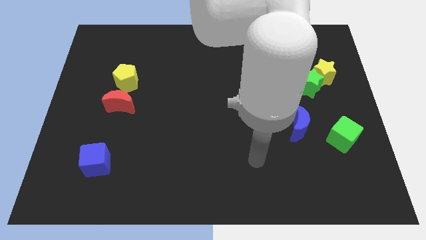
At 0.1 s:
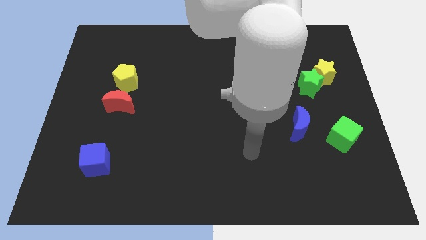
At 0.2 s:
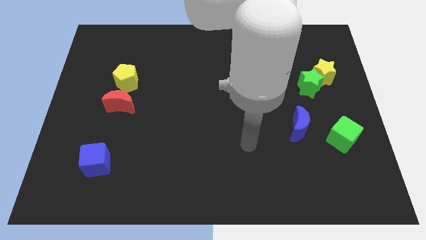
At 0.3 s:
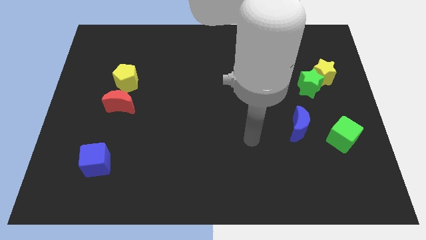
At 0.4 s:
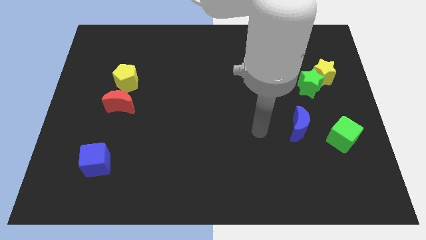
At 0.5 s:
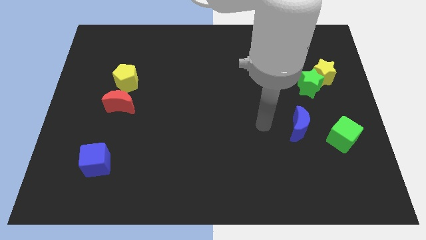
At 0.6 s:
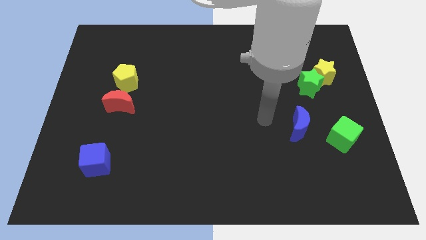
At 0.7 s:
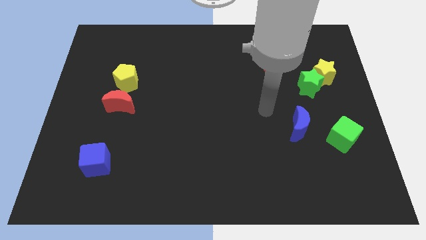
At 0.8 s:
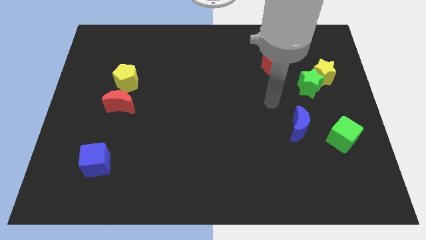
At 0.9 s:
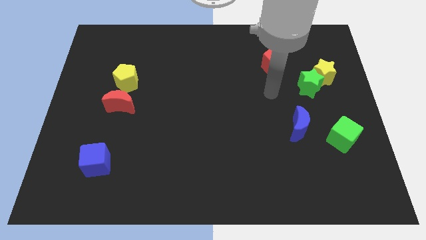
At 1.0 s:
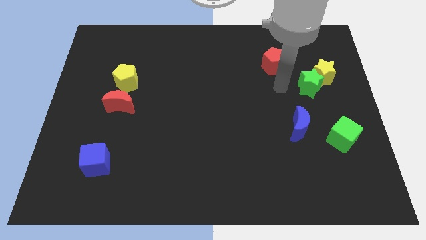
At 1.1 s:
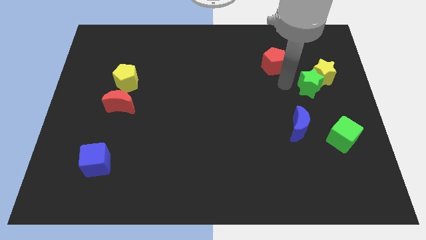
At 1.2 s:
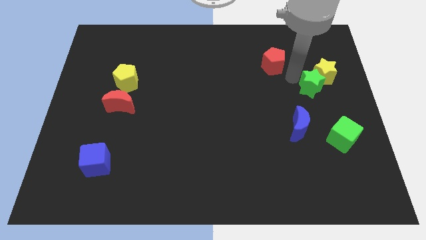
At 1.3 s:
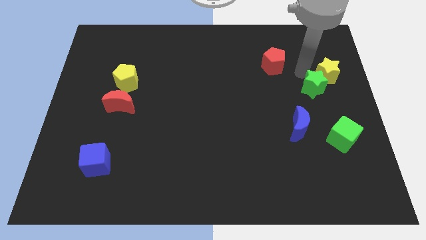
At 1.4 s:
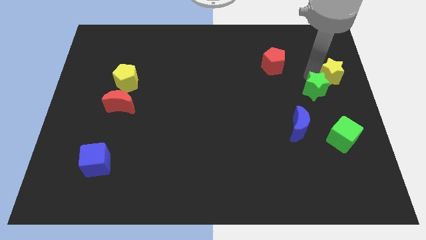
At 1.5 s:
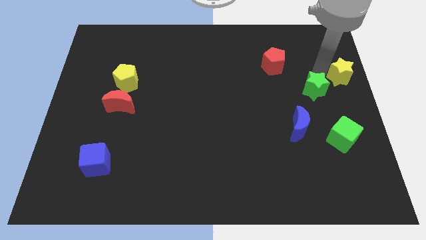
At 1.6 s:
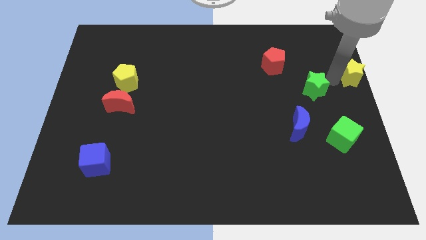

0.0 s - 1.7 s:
separate the green star from the yellow star

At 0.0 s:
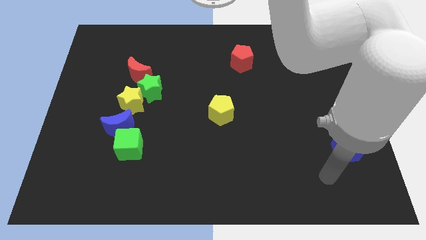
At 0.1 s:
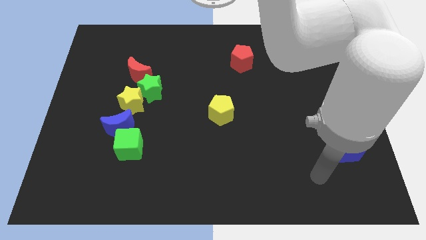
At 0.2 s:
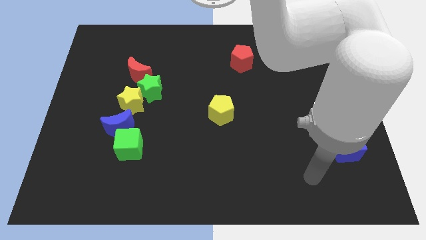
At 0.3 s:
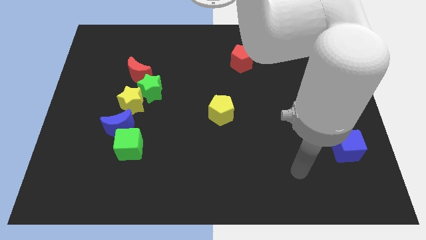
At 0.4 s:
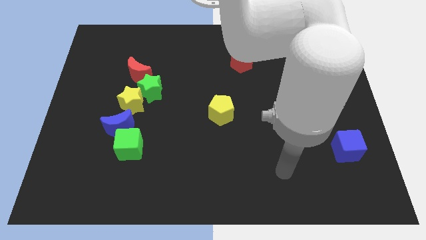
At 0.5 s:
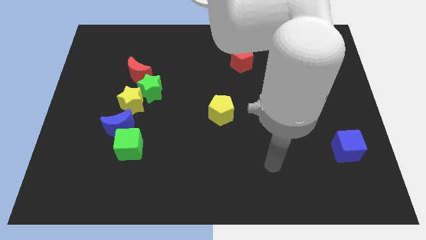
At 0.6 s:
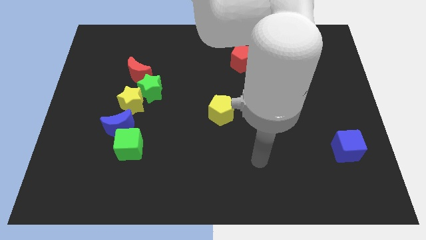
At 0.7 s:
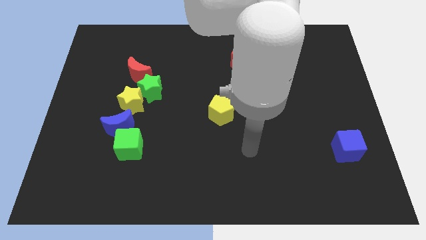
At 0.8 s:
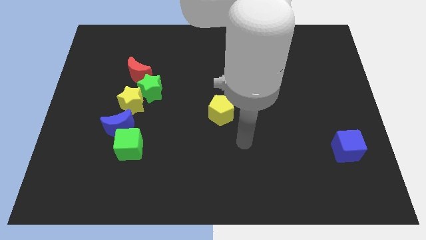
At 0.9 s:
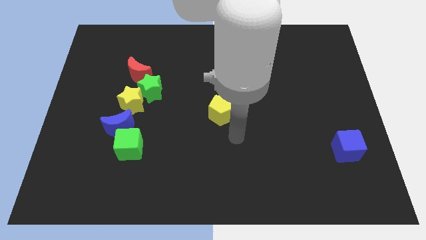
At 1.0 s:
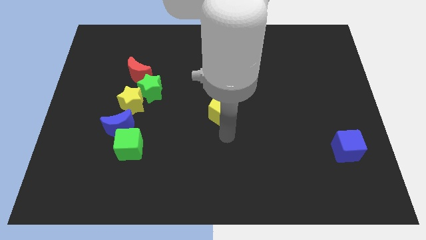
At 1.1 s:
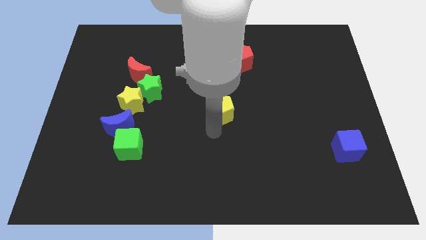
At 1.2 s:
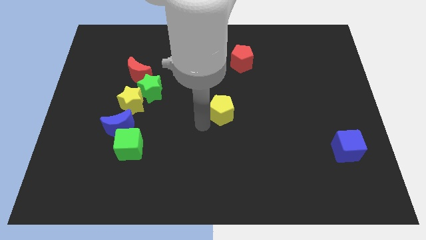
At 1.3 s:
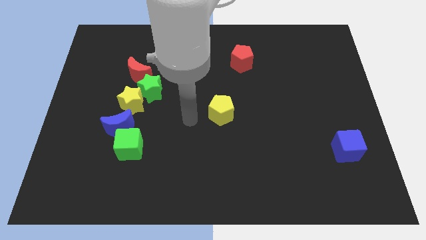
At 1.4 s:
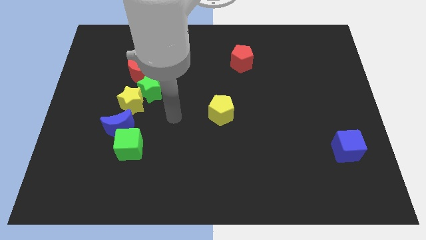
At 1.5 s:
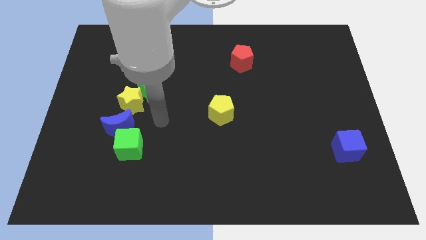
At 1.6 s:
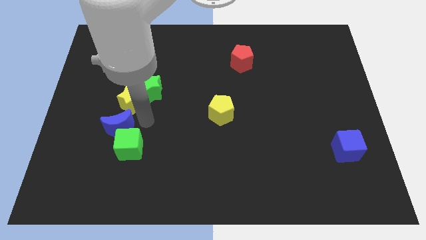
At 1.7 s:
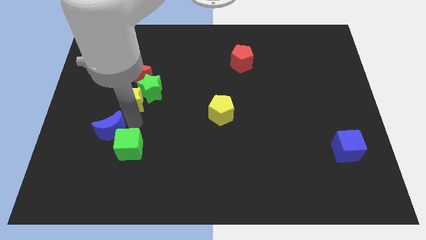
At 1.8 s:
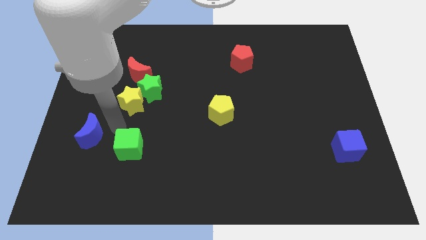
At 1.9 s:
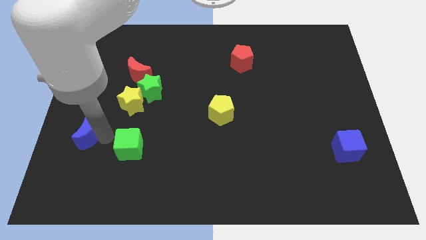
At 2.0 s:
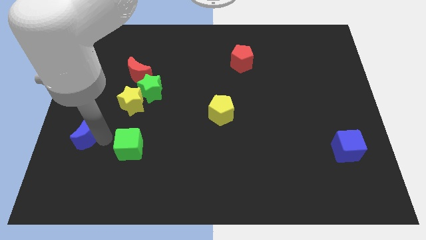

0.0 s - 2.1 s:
pull the green cube apart from the blue moon

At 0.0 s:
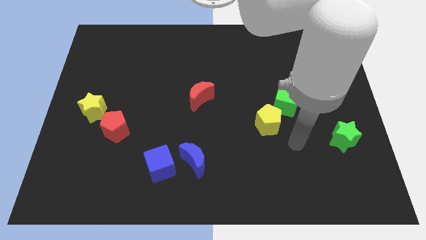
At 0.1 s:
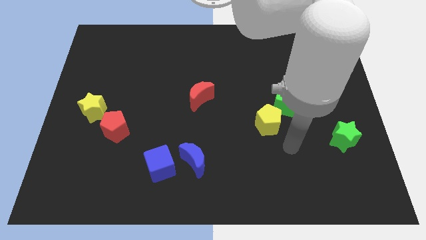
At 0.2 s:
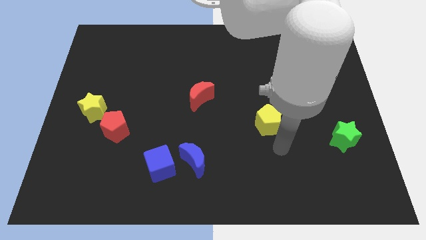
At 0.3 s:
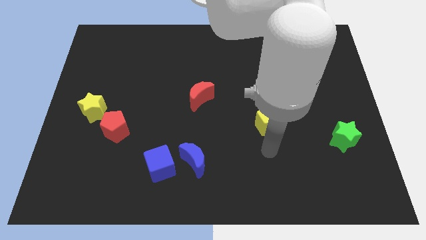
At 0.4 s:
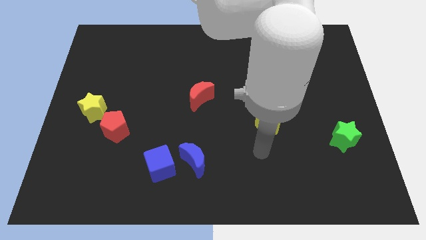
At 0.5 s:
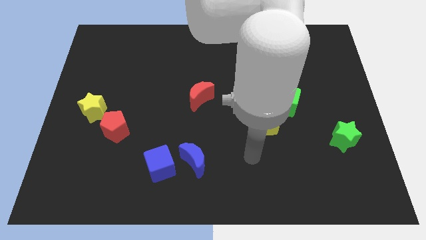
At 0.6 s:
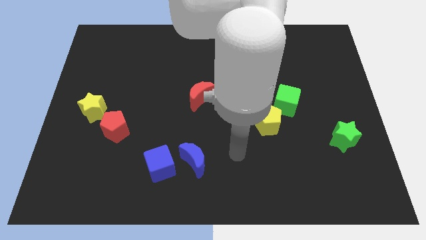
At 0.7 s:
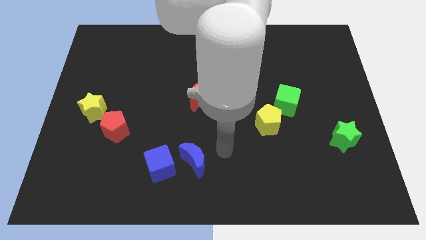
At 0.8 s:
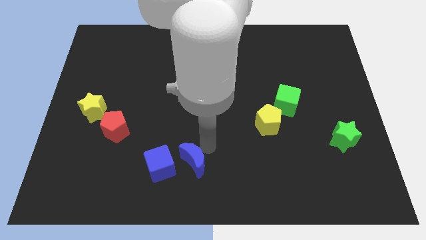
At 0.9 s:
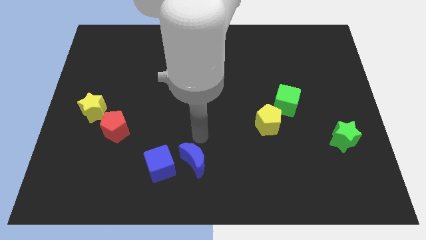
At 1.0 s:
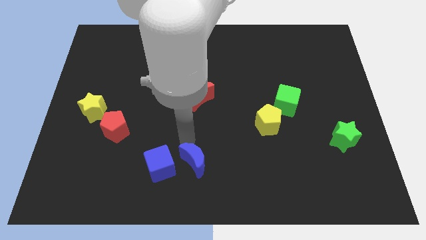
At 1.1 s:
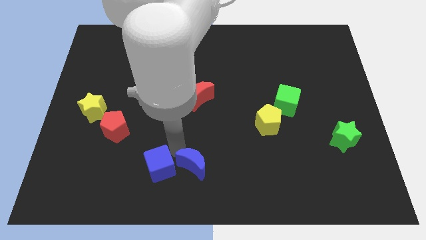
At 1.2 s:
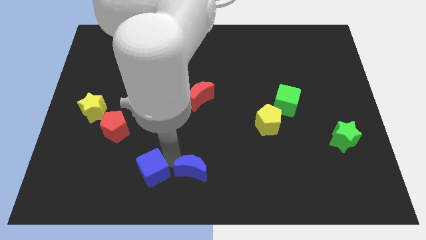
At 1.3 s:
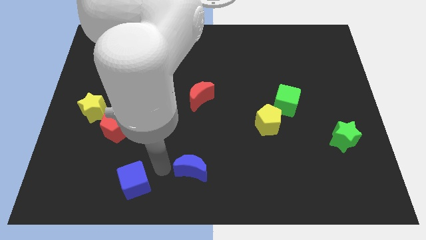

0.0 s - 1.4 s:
separate the blue moon from the blue cube

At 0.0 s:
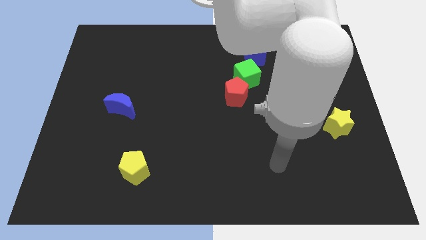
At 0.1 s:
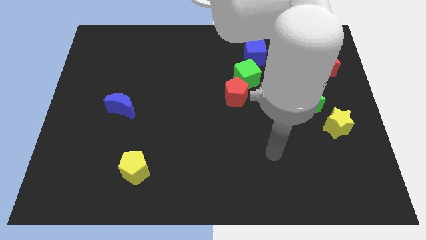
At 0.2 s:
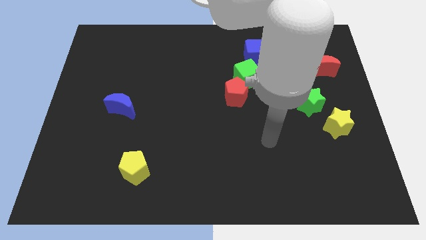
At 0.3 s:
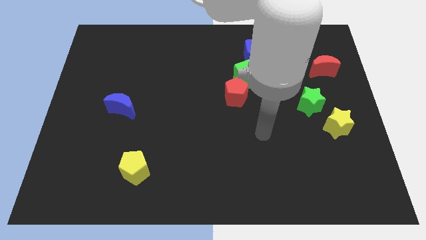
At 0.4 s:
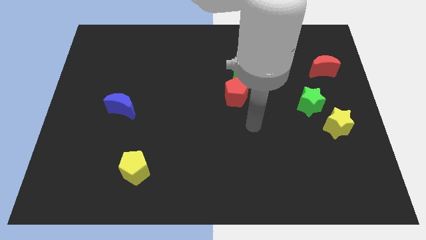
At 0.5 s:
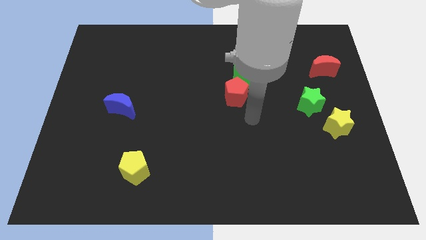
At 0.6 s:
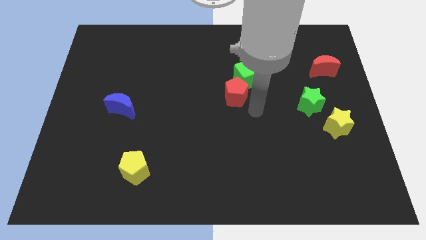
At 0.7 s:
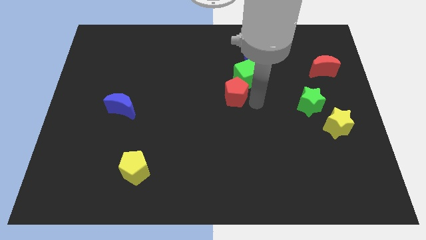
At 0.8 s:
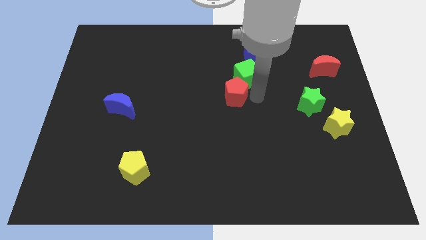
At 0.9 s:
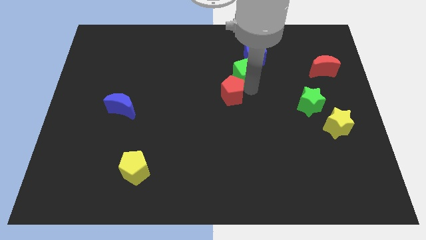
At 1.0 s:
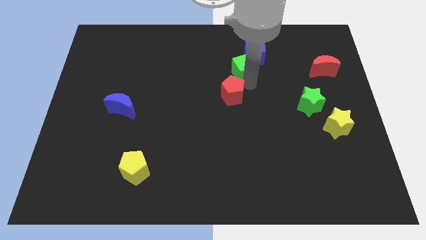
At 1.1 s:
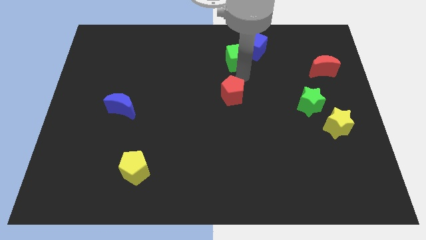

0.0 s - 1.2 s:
pull the red pentagon apart from the green cube

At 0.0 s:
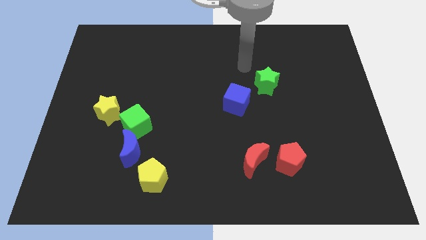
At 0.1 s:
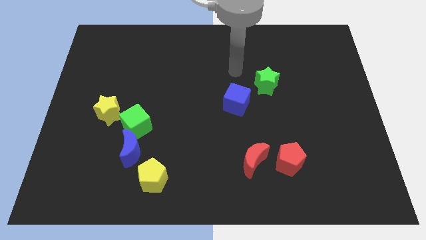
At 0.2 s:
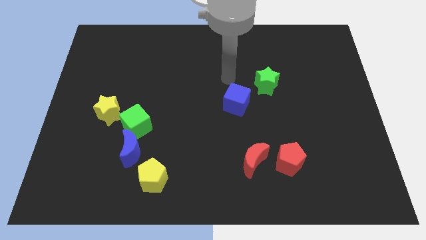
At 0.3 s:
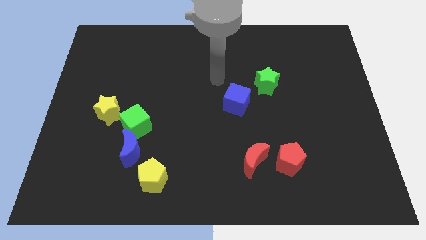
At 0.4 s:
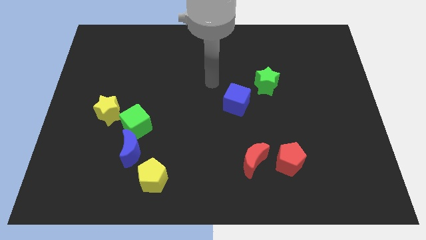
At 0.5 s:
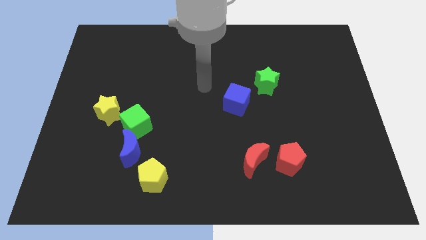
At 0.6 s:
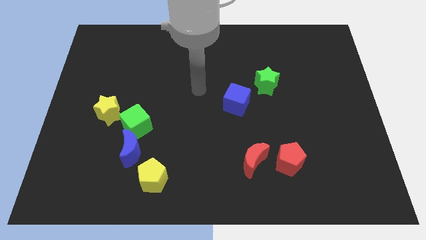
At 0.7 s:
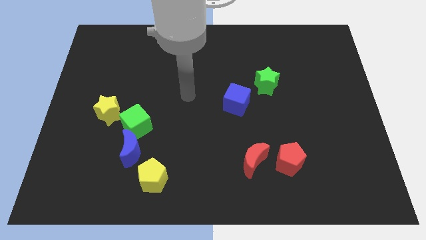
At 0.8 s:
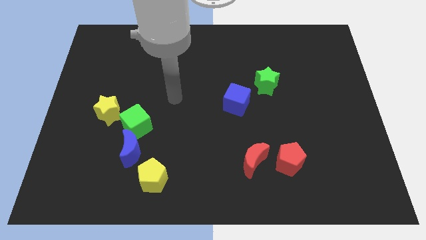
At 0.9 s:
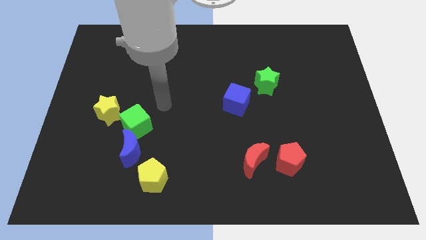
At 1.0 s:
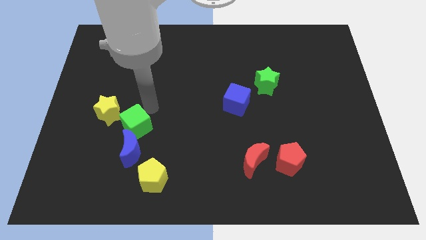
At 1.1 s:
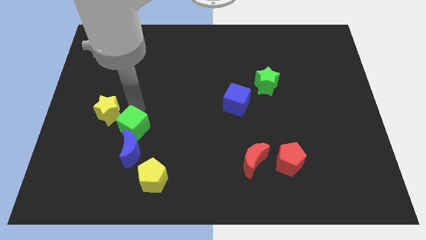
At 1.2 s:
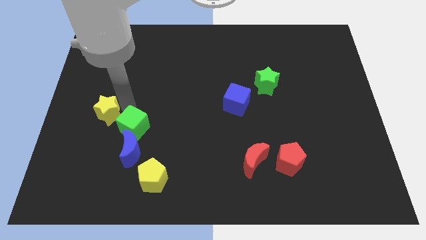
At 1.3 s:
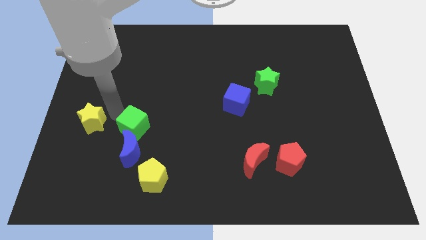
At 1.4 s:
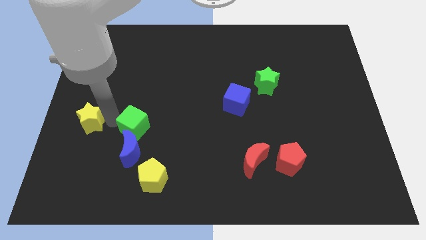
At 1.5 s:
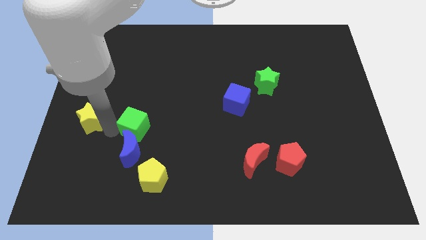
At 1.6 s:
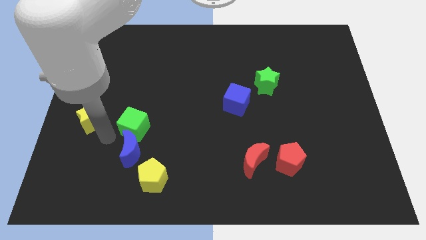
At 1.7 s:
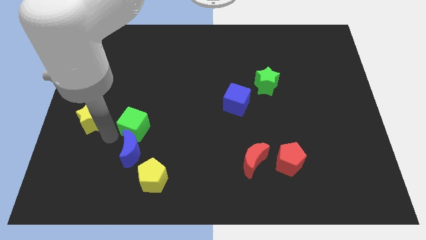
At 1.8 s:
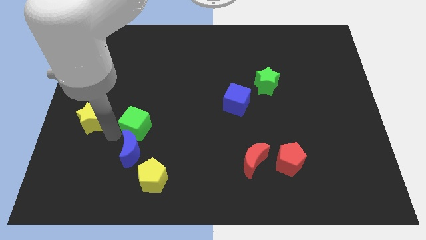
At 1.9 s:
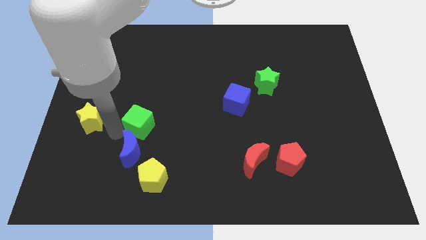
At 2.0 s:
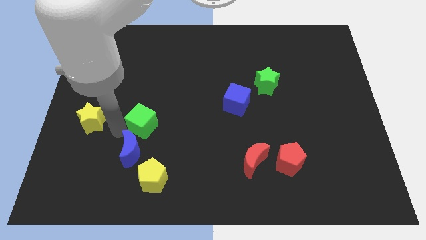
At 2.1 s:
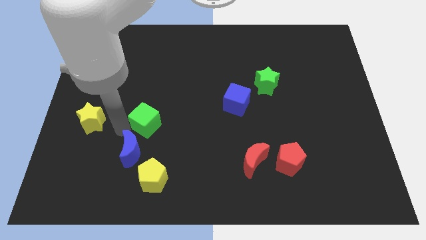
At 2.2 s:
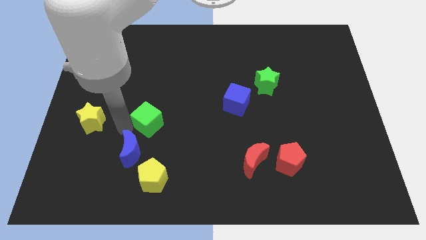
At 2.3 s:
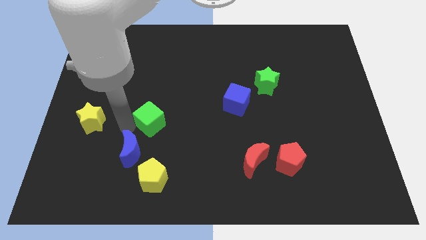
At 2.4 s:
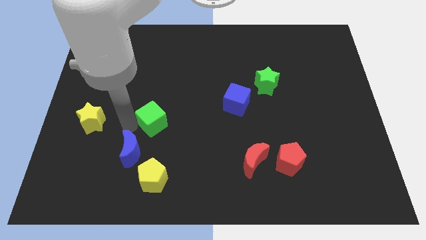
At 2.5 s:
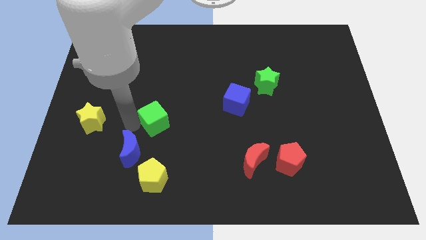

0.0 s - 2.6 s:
separate the green cube from the blue moon and yellow star

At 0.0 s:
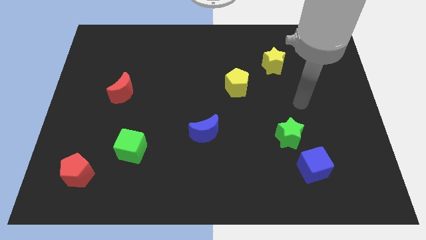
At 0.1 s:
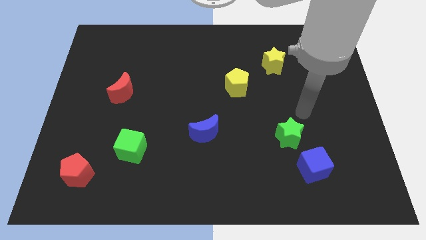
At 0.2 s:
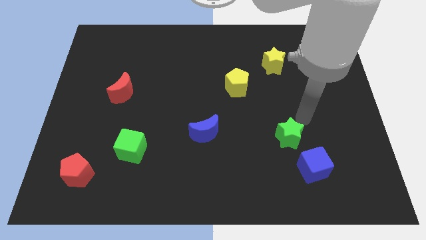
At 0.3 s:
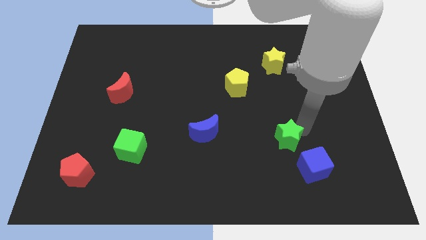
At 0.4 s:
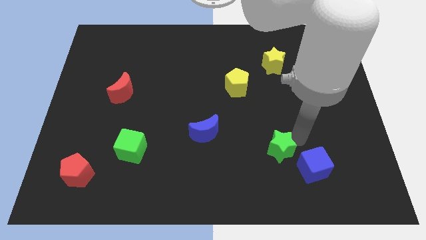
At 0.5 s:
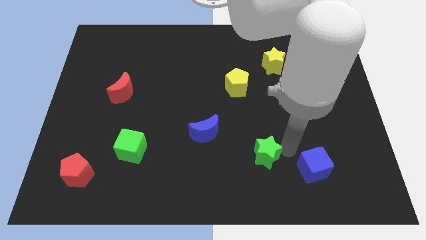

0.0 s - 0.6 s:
move the blue cube away from the green star
